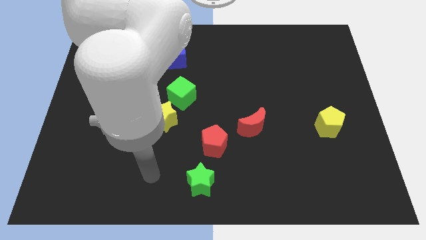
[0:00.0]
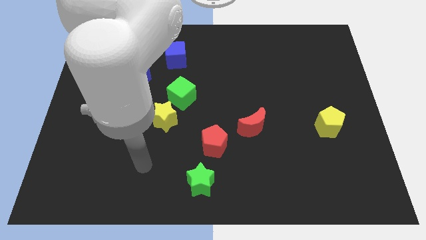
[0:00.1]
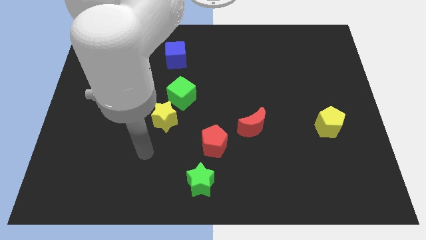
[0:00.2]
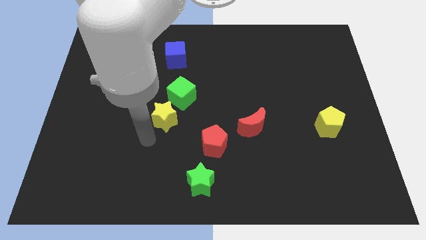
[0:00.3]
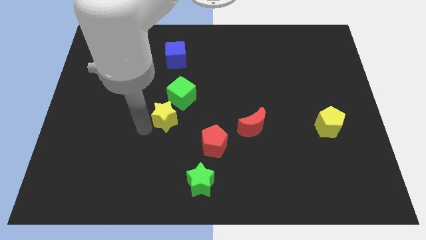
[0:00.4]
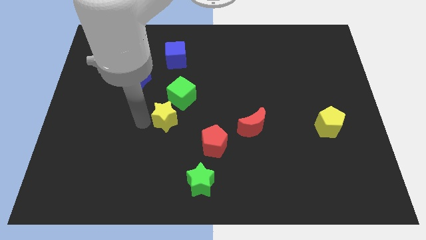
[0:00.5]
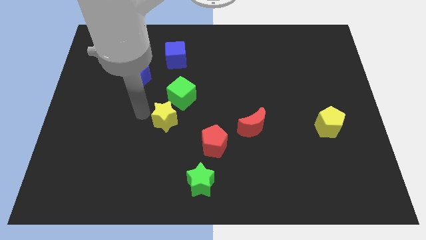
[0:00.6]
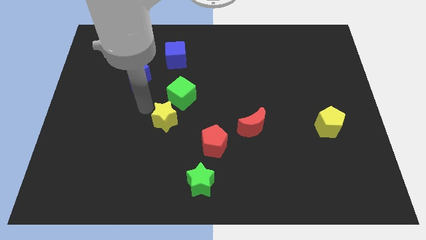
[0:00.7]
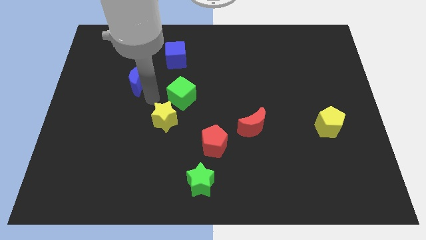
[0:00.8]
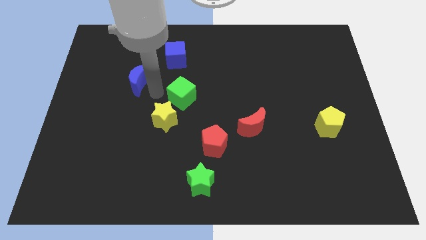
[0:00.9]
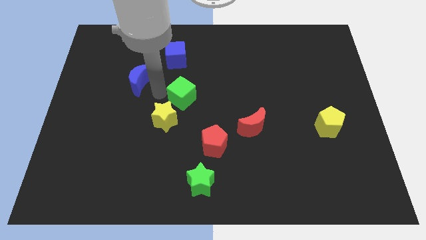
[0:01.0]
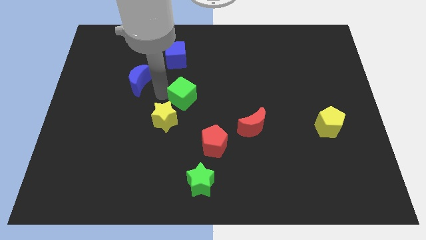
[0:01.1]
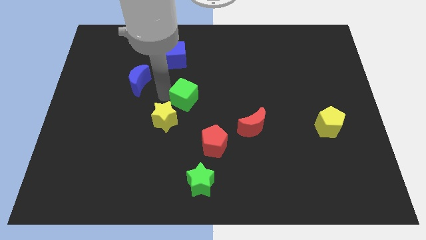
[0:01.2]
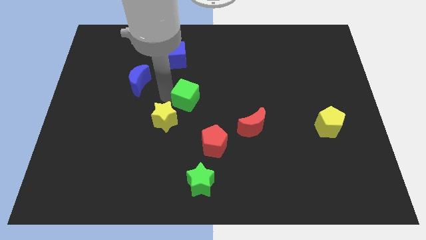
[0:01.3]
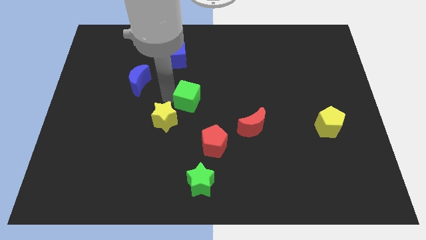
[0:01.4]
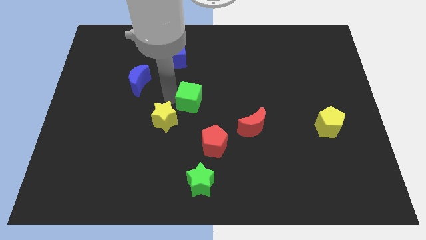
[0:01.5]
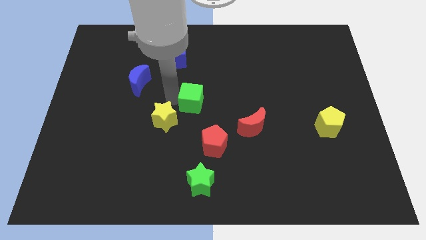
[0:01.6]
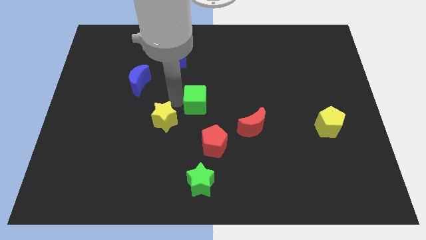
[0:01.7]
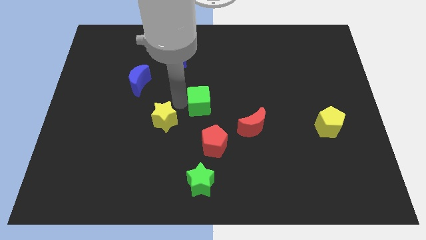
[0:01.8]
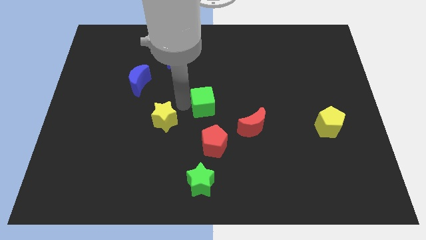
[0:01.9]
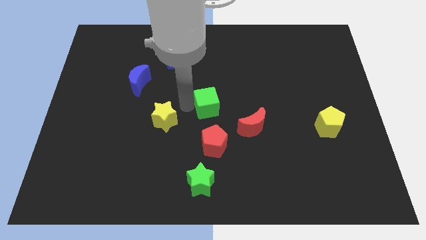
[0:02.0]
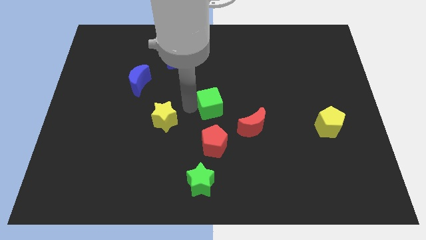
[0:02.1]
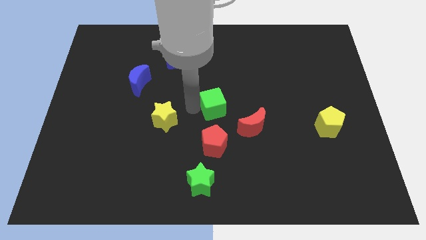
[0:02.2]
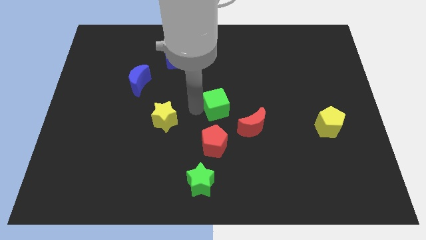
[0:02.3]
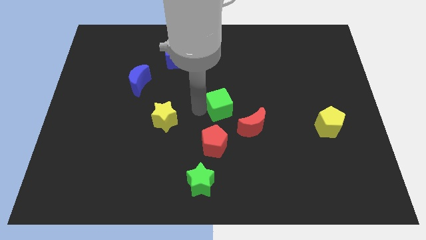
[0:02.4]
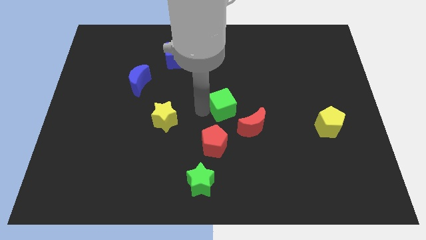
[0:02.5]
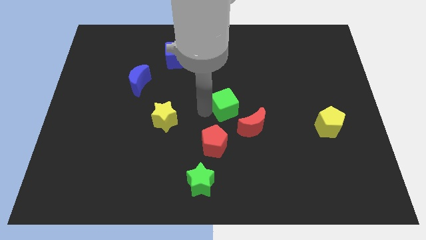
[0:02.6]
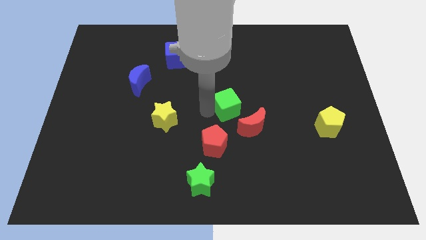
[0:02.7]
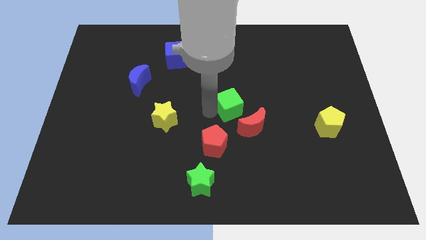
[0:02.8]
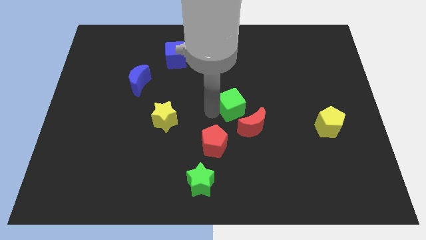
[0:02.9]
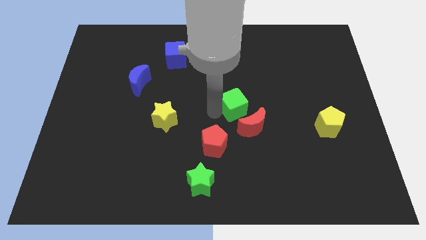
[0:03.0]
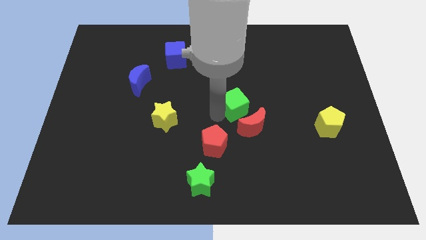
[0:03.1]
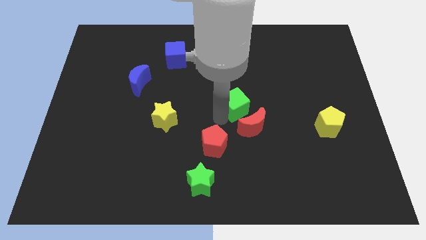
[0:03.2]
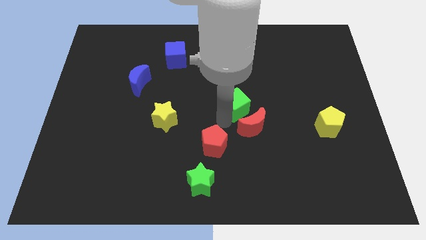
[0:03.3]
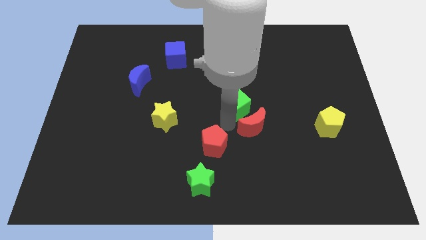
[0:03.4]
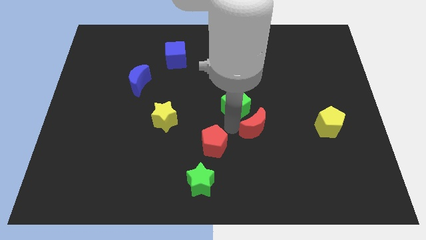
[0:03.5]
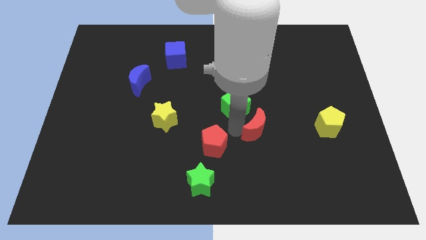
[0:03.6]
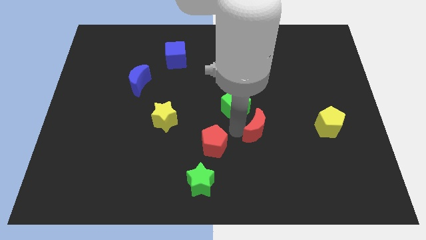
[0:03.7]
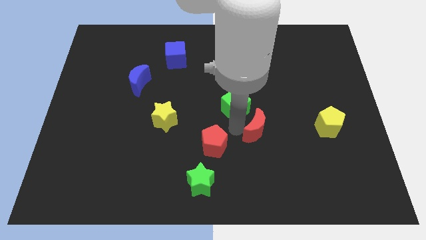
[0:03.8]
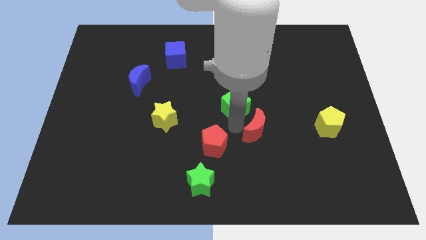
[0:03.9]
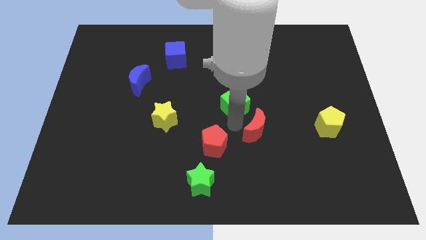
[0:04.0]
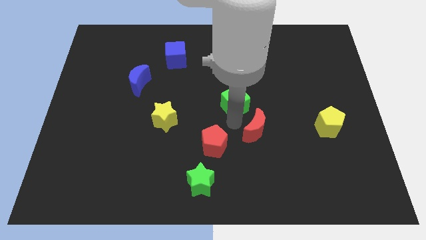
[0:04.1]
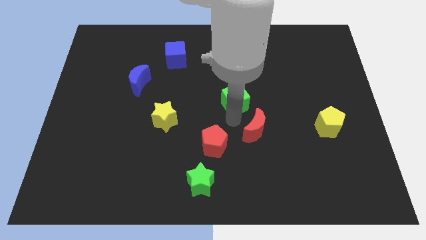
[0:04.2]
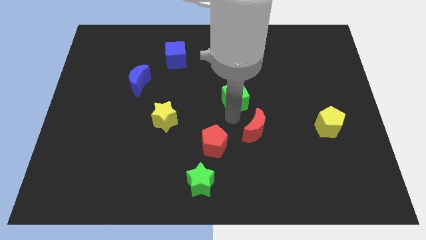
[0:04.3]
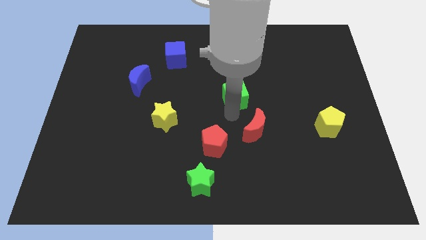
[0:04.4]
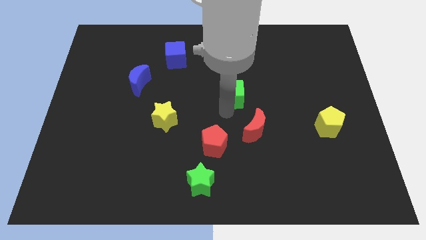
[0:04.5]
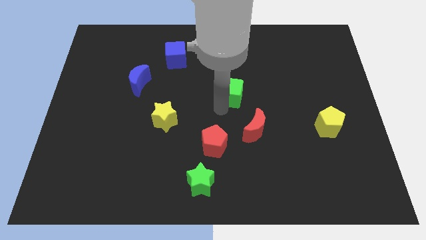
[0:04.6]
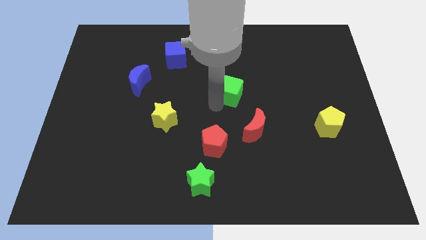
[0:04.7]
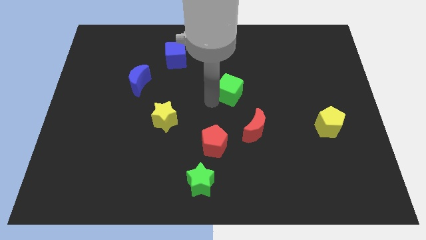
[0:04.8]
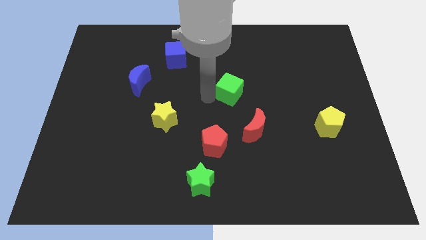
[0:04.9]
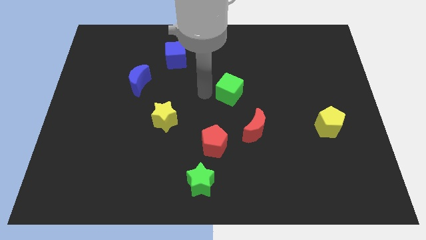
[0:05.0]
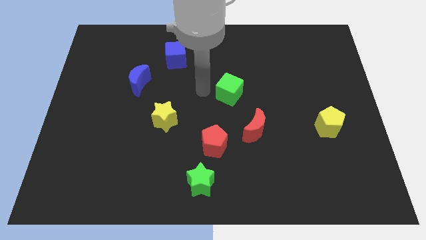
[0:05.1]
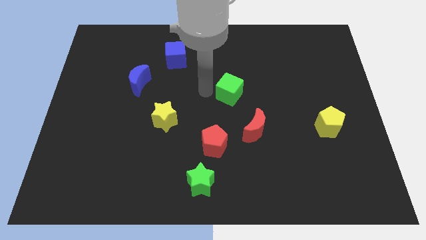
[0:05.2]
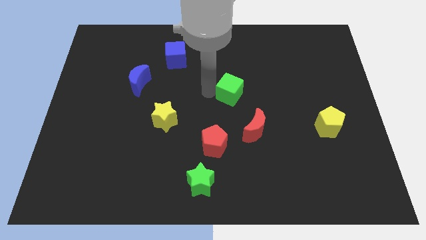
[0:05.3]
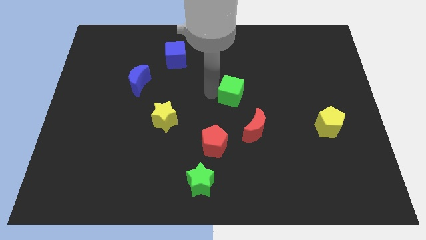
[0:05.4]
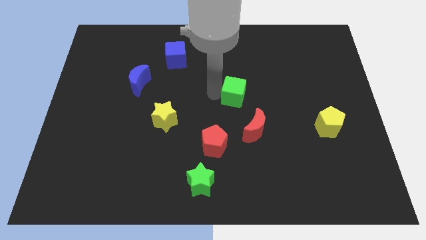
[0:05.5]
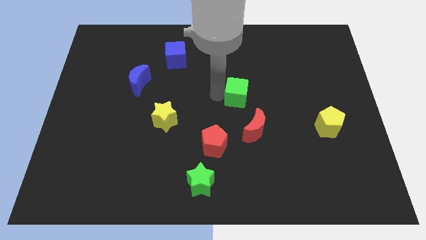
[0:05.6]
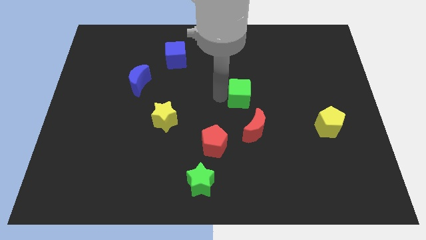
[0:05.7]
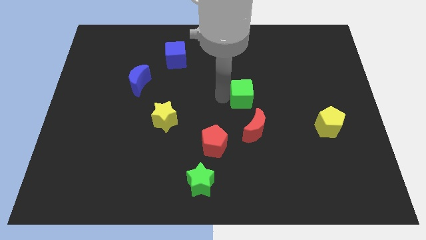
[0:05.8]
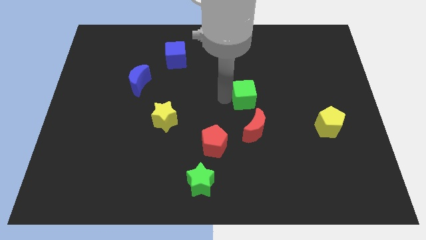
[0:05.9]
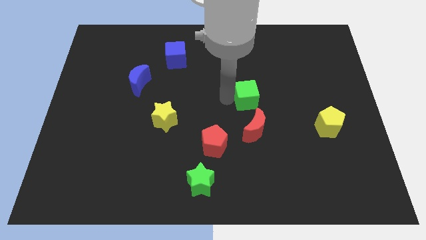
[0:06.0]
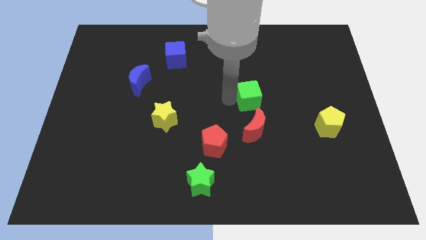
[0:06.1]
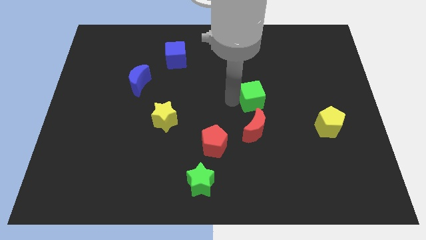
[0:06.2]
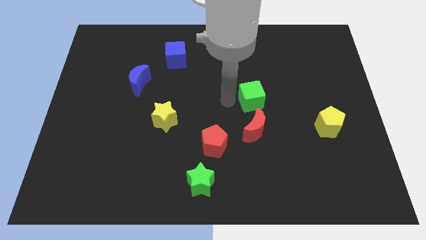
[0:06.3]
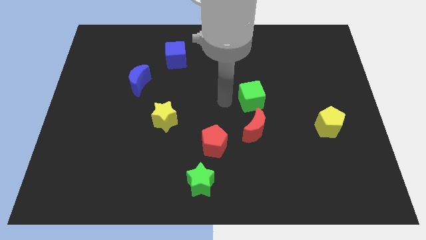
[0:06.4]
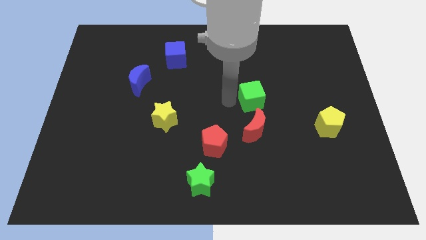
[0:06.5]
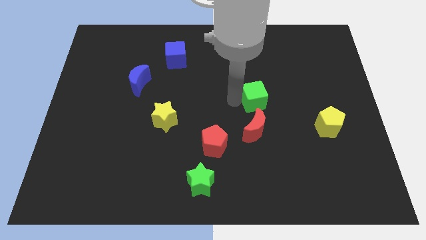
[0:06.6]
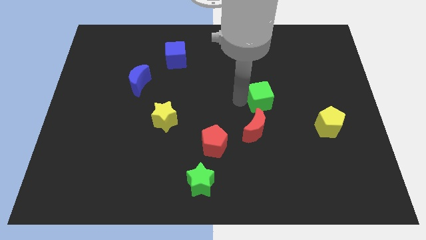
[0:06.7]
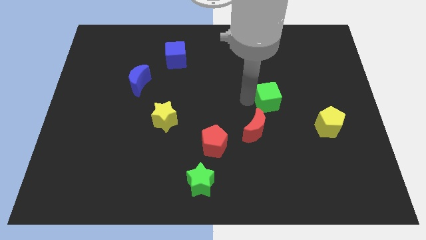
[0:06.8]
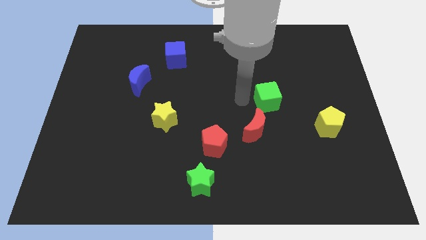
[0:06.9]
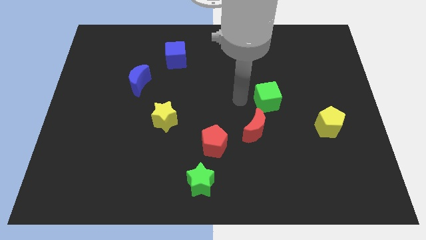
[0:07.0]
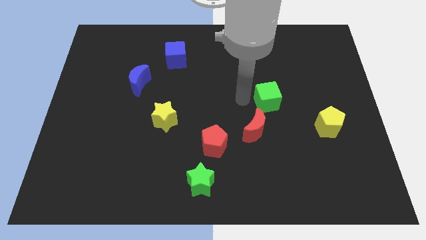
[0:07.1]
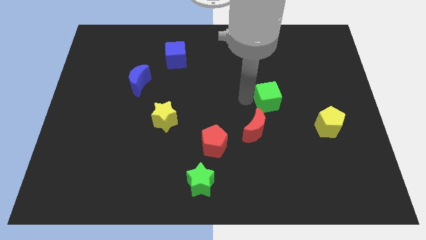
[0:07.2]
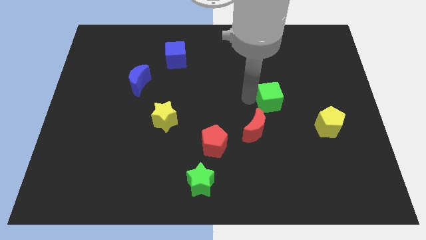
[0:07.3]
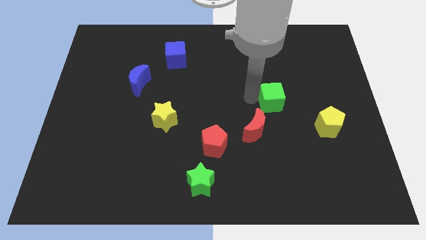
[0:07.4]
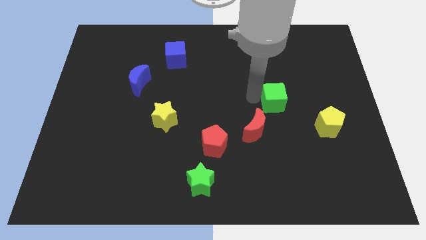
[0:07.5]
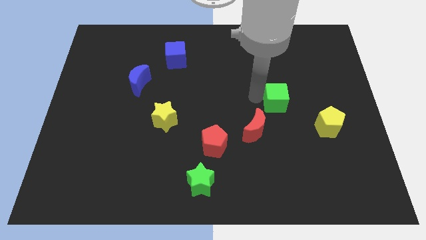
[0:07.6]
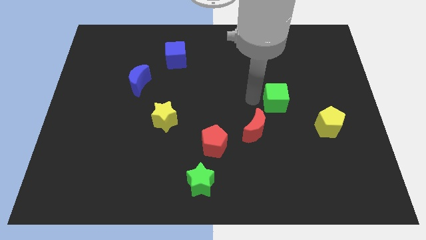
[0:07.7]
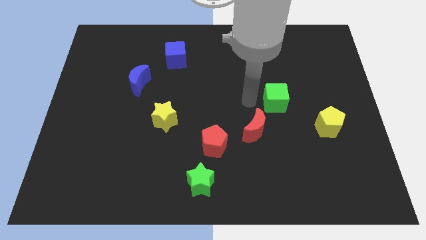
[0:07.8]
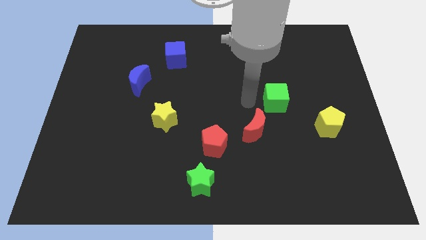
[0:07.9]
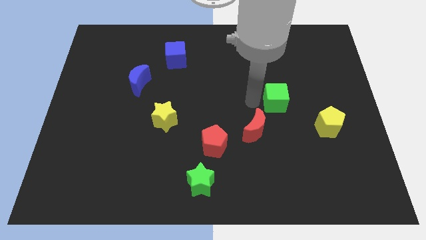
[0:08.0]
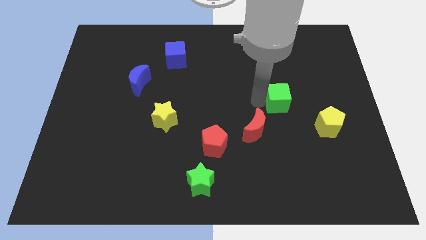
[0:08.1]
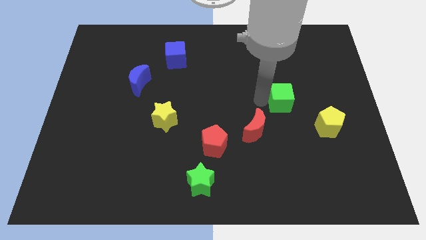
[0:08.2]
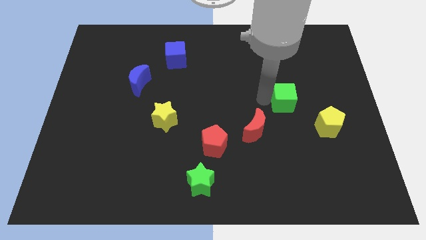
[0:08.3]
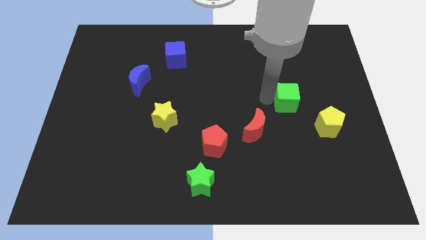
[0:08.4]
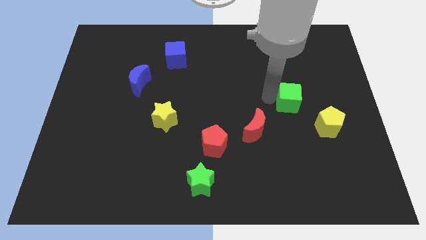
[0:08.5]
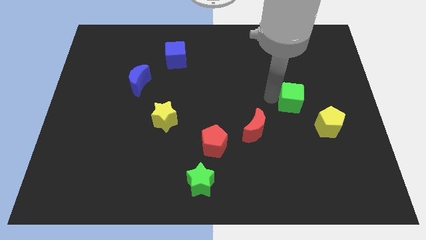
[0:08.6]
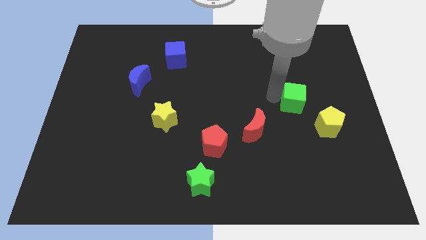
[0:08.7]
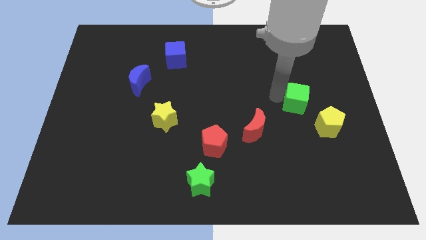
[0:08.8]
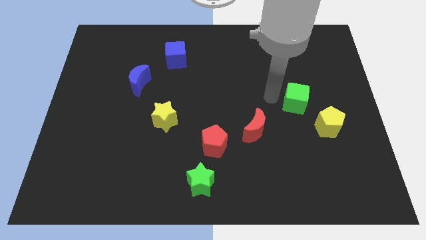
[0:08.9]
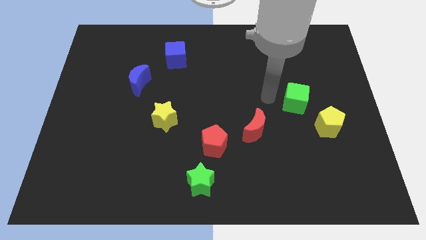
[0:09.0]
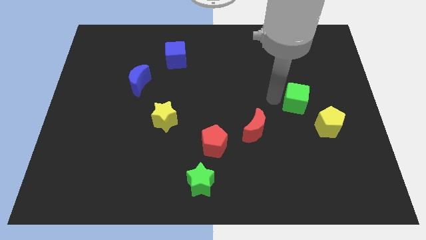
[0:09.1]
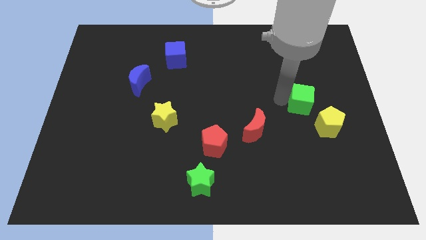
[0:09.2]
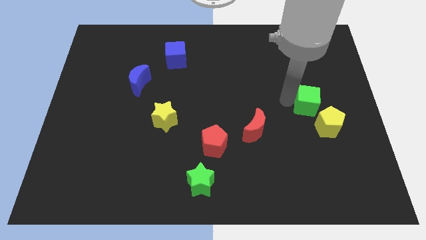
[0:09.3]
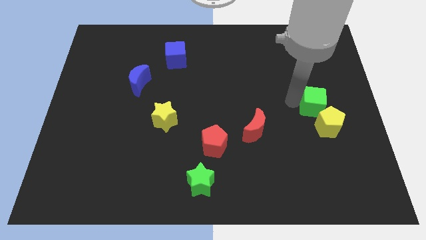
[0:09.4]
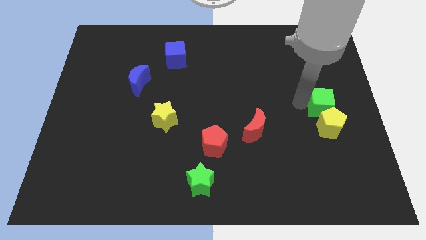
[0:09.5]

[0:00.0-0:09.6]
put the green cube to the right side
